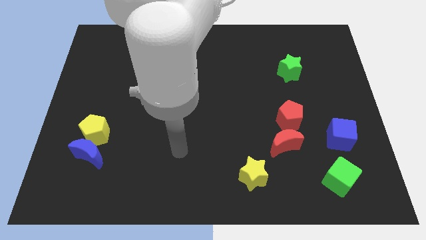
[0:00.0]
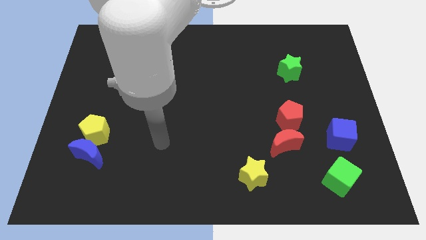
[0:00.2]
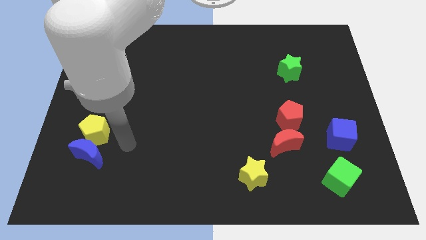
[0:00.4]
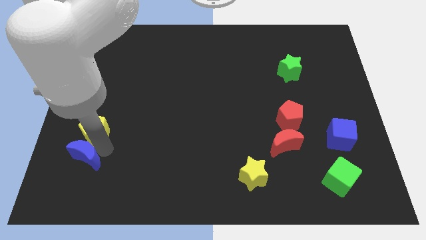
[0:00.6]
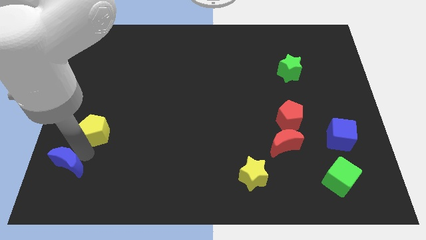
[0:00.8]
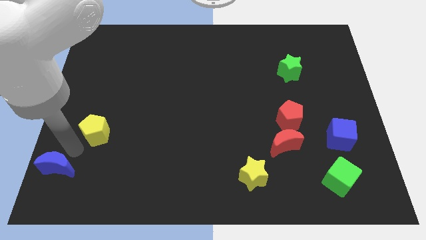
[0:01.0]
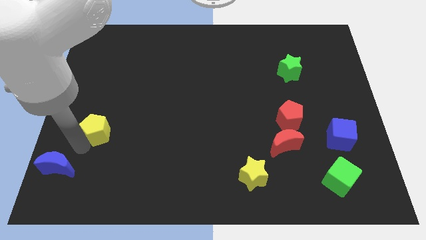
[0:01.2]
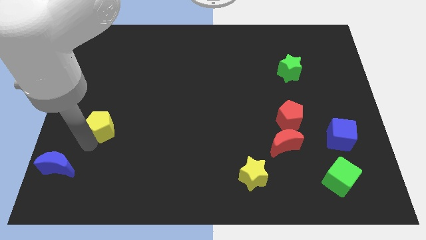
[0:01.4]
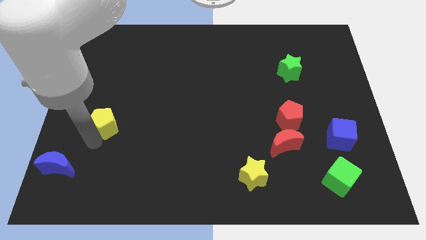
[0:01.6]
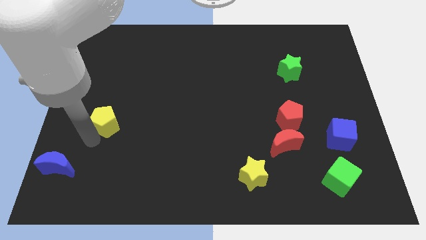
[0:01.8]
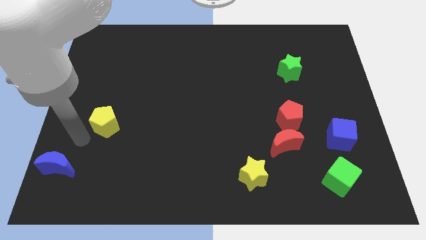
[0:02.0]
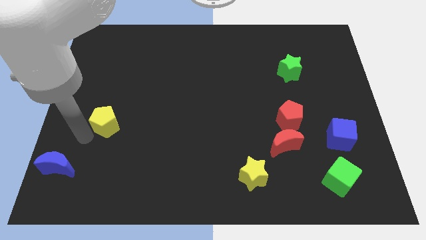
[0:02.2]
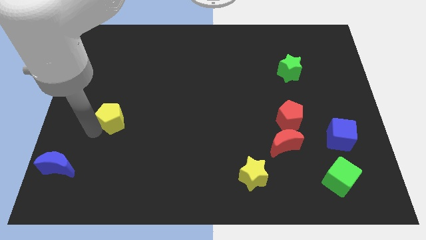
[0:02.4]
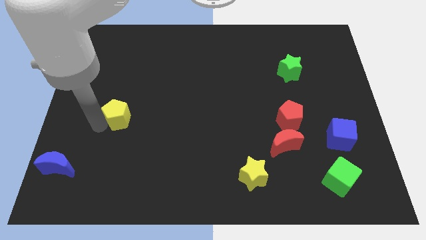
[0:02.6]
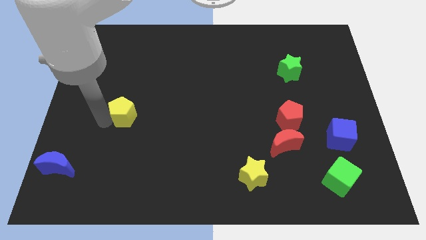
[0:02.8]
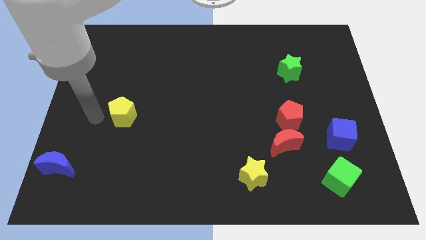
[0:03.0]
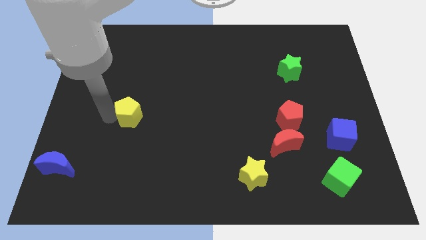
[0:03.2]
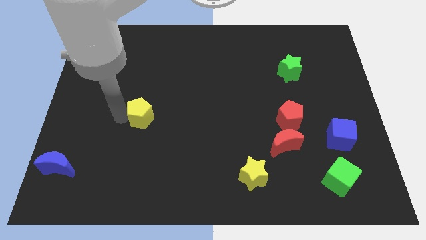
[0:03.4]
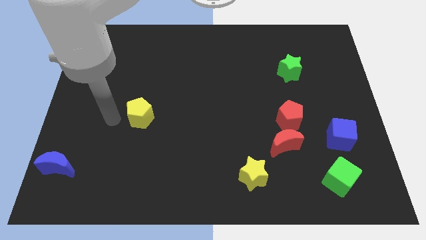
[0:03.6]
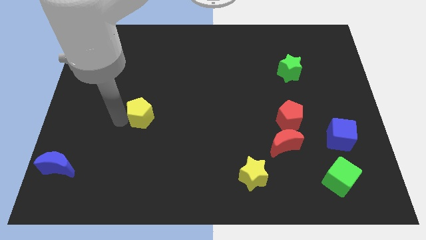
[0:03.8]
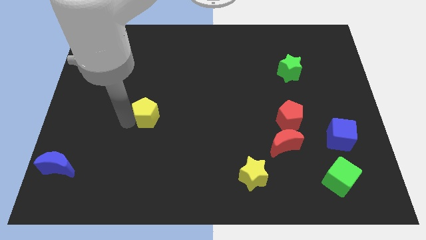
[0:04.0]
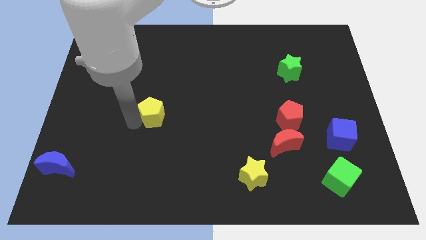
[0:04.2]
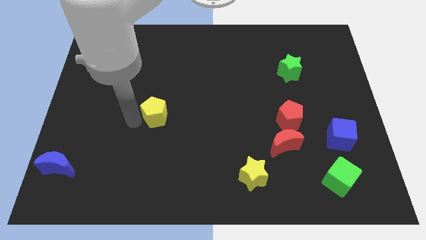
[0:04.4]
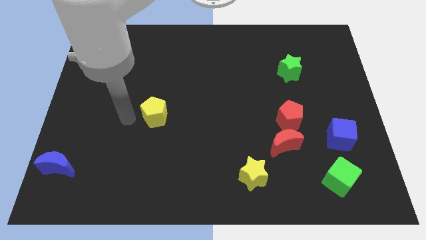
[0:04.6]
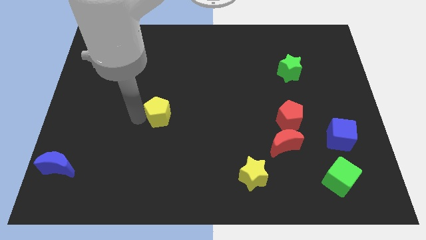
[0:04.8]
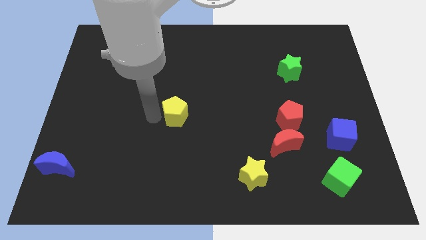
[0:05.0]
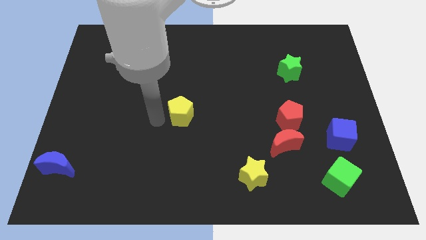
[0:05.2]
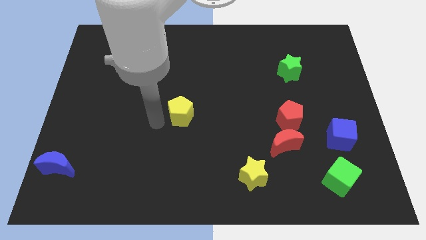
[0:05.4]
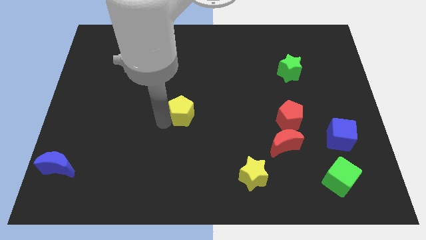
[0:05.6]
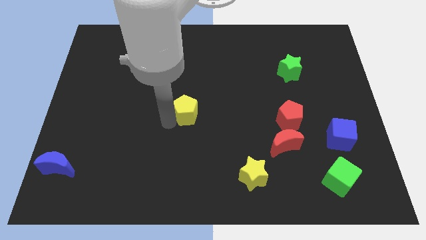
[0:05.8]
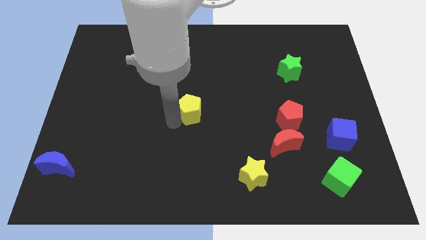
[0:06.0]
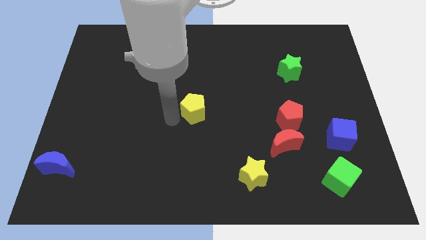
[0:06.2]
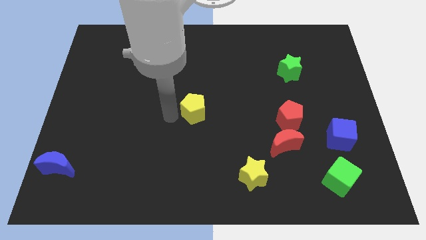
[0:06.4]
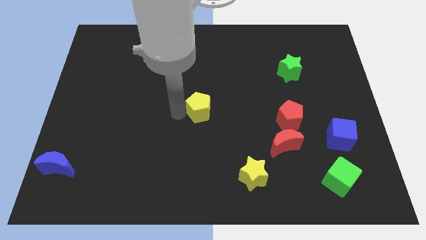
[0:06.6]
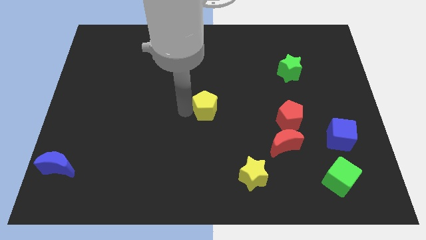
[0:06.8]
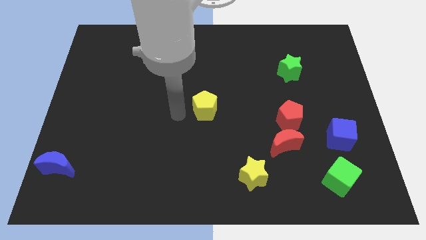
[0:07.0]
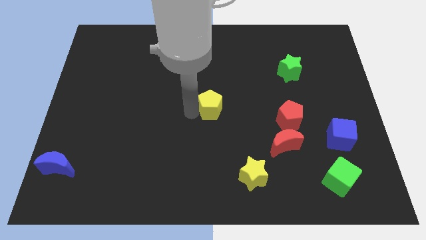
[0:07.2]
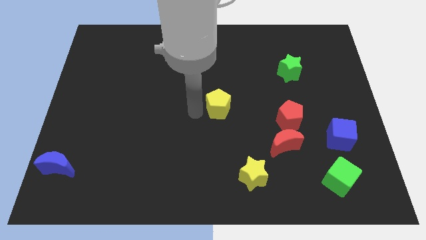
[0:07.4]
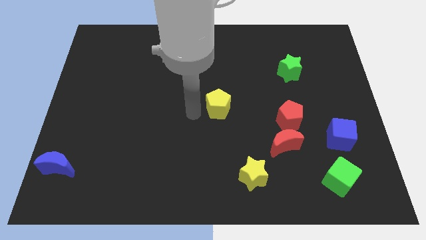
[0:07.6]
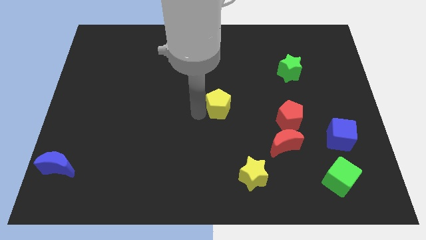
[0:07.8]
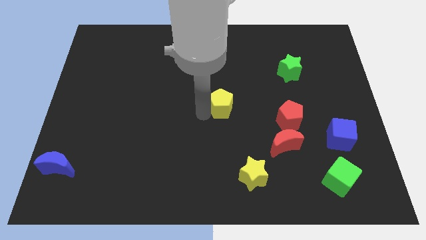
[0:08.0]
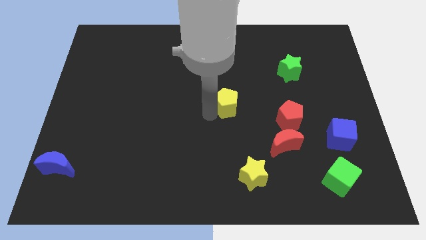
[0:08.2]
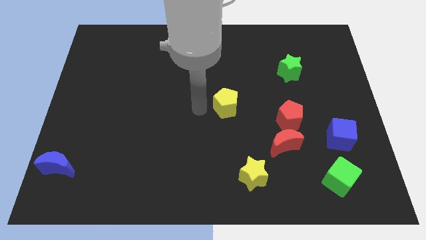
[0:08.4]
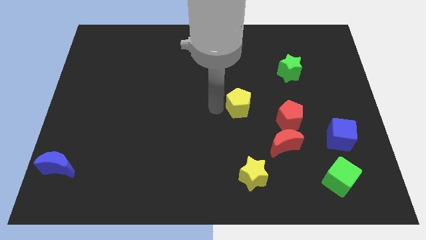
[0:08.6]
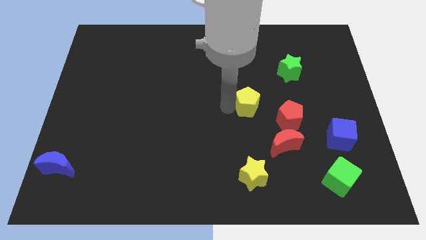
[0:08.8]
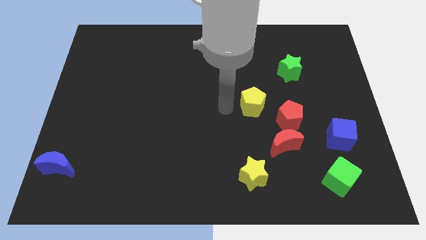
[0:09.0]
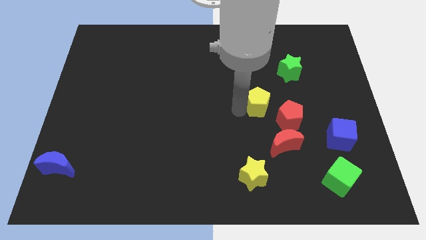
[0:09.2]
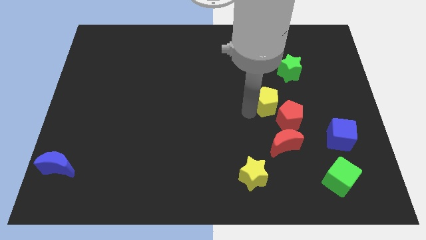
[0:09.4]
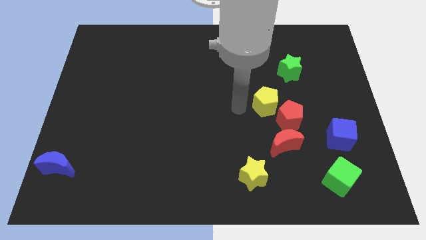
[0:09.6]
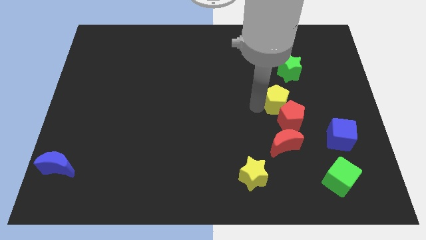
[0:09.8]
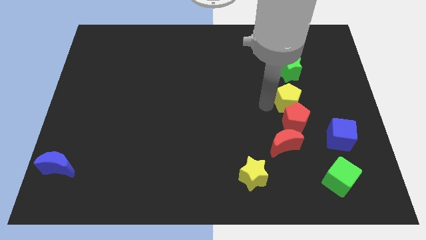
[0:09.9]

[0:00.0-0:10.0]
put the yellow pentagon diagonally up and to the right of the red pentagon

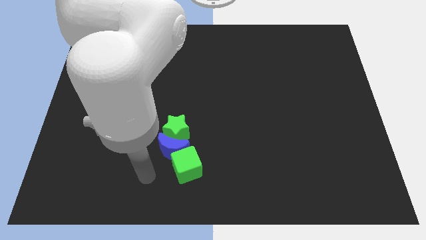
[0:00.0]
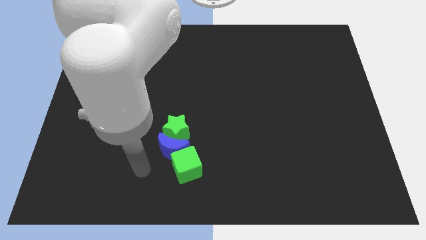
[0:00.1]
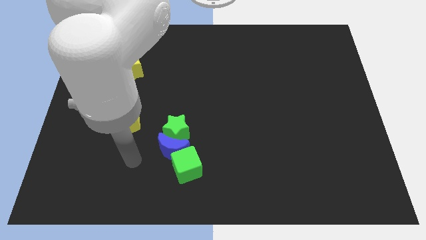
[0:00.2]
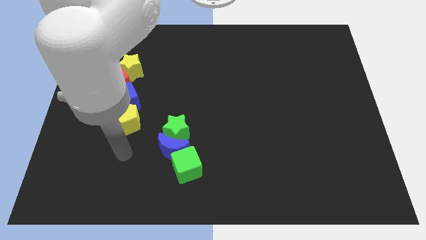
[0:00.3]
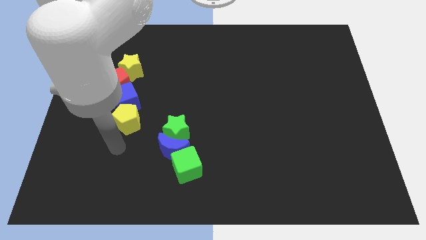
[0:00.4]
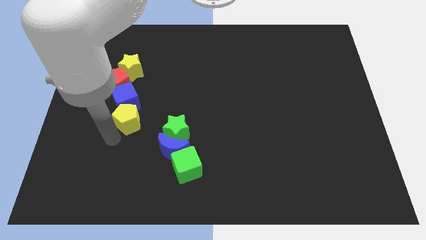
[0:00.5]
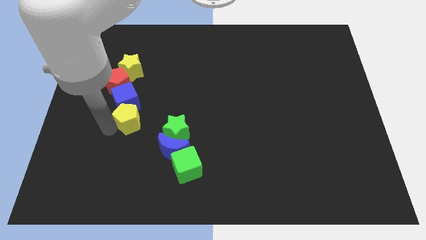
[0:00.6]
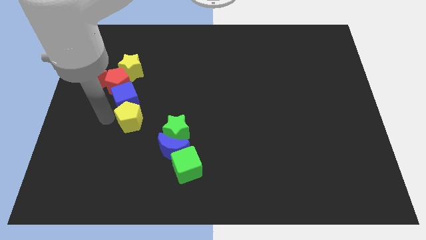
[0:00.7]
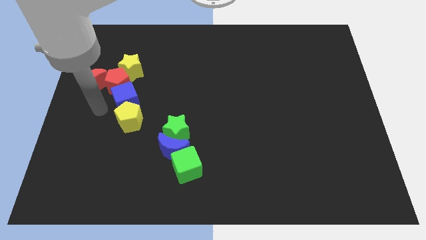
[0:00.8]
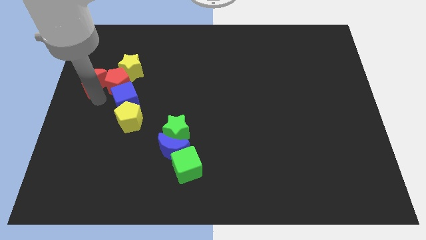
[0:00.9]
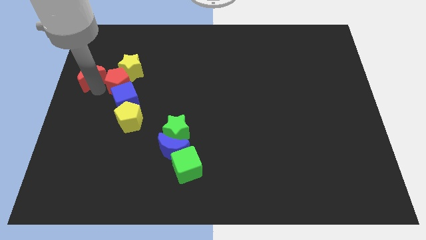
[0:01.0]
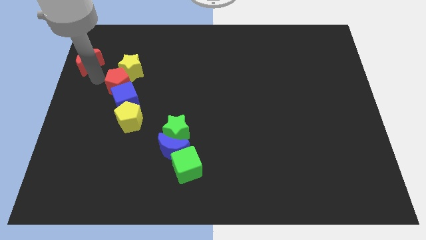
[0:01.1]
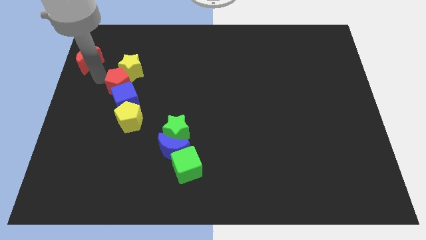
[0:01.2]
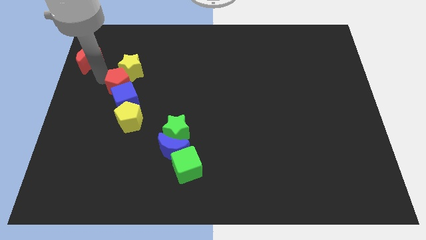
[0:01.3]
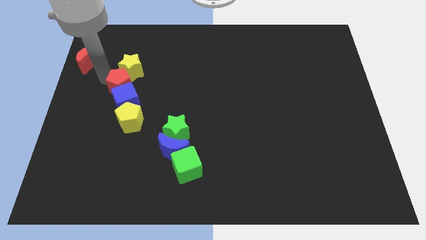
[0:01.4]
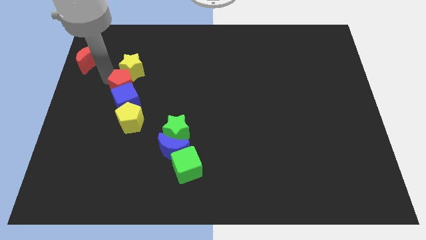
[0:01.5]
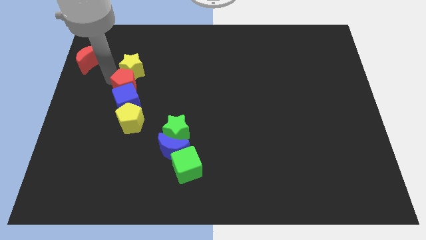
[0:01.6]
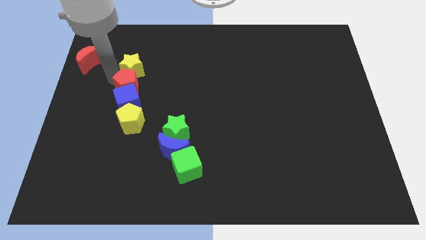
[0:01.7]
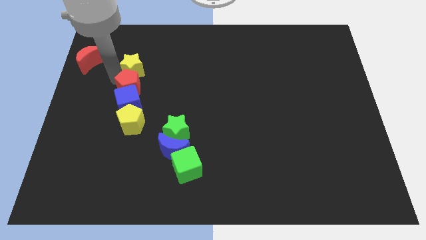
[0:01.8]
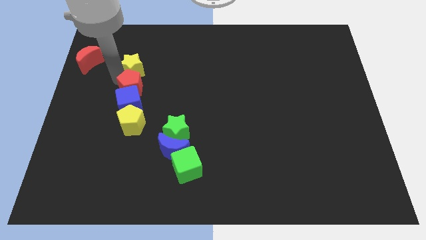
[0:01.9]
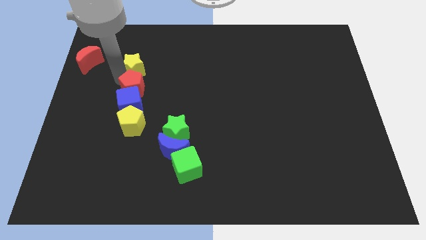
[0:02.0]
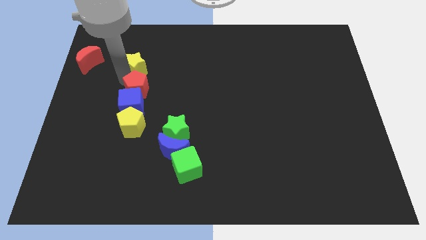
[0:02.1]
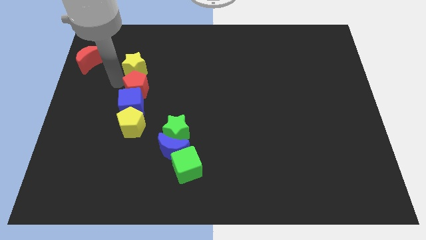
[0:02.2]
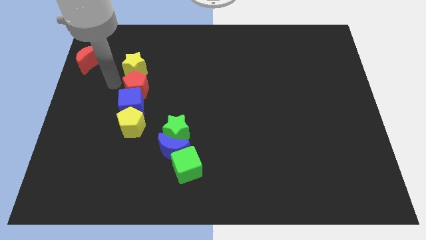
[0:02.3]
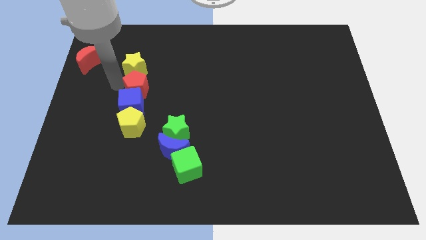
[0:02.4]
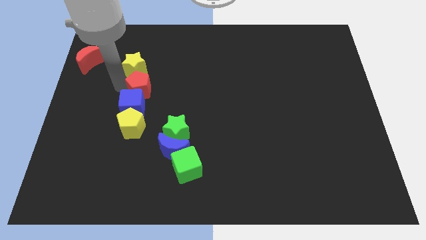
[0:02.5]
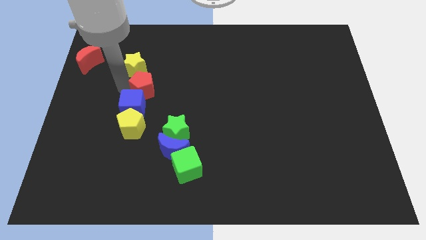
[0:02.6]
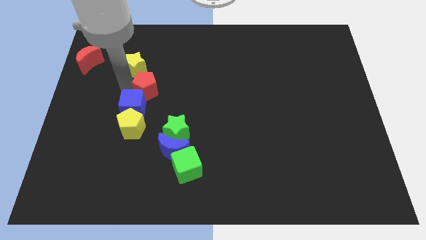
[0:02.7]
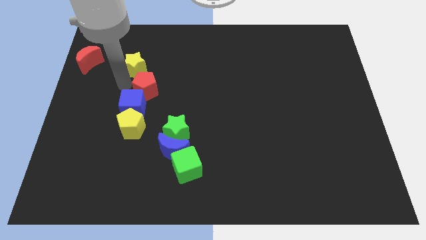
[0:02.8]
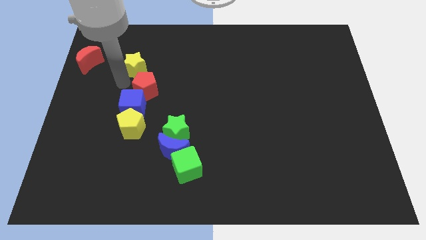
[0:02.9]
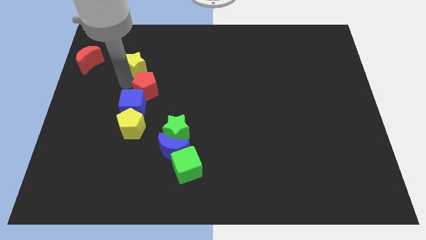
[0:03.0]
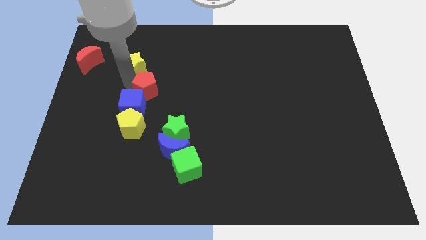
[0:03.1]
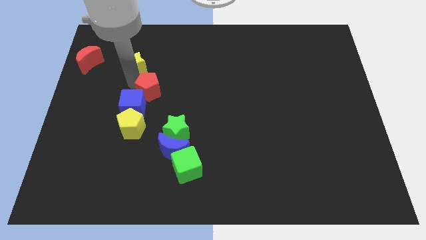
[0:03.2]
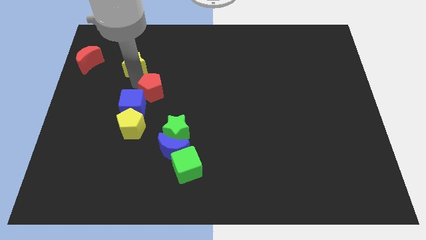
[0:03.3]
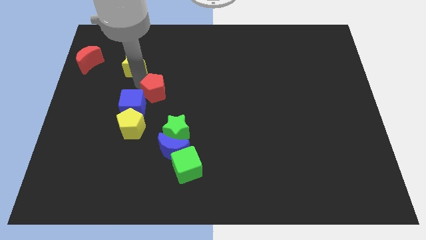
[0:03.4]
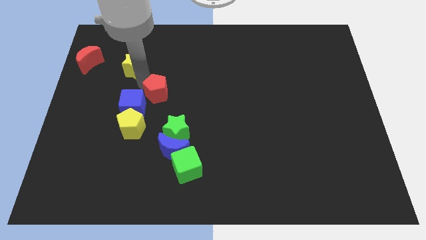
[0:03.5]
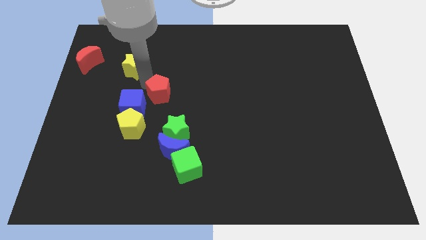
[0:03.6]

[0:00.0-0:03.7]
push the red pentagon above the green star
